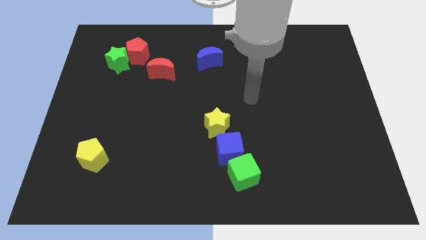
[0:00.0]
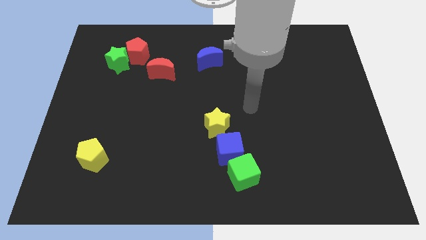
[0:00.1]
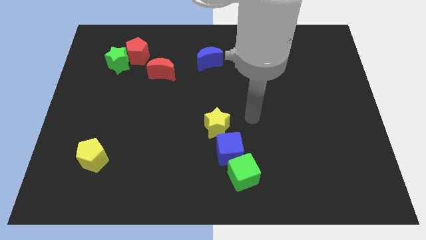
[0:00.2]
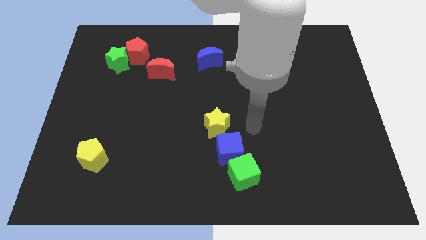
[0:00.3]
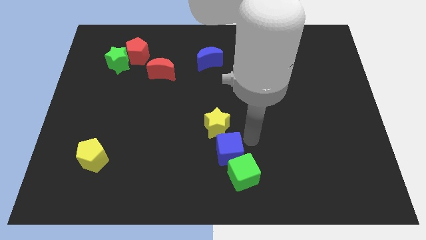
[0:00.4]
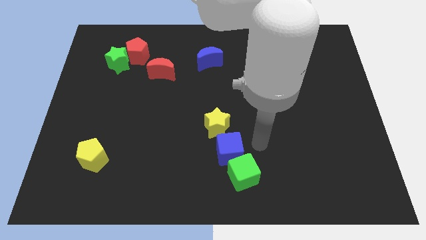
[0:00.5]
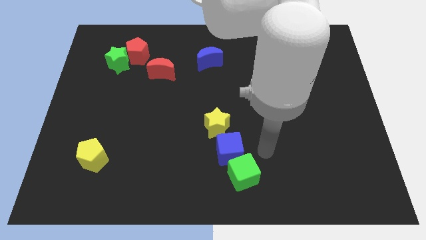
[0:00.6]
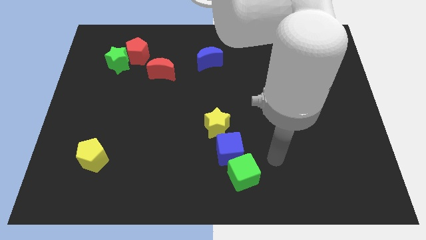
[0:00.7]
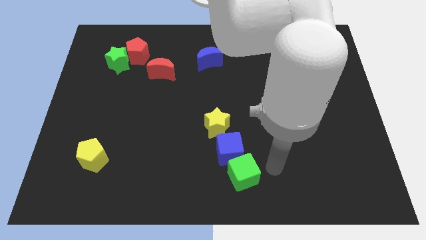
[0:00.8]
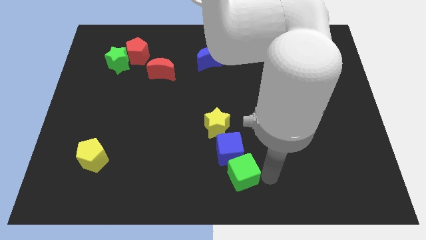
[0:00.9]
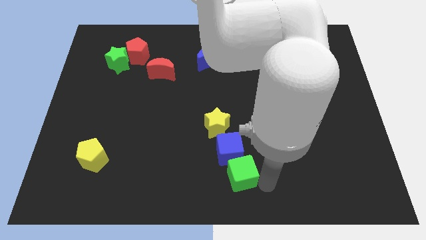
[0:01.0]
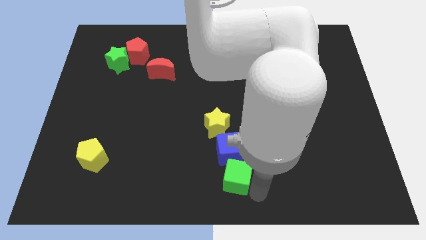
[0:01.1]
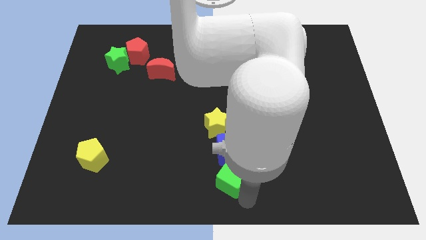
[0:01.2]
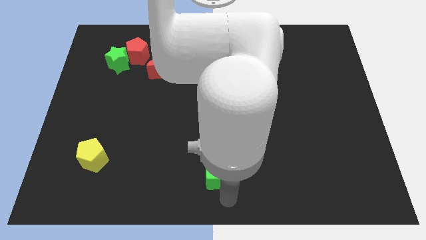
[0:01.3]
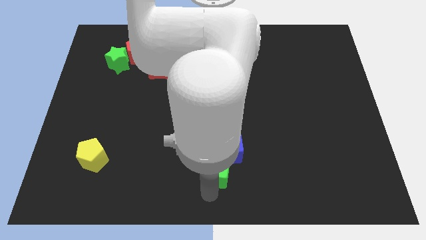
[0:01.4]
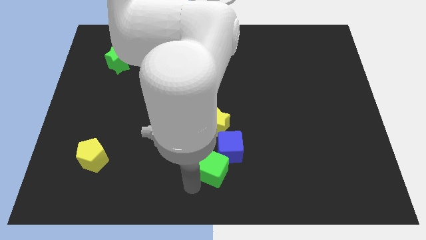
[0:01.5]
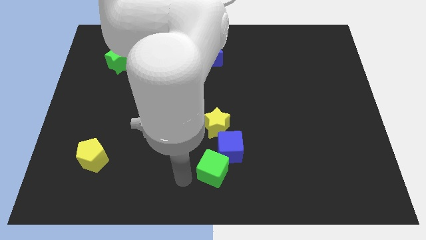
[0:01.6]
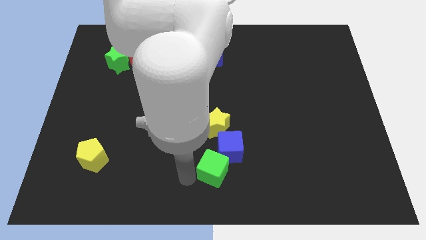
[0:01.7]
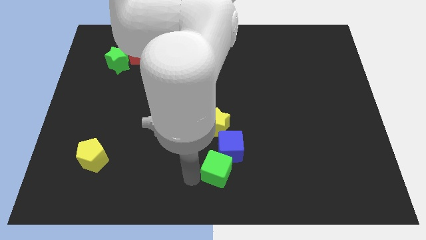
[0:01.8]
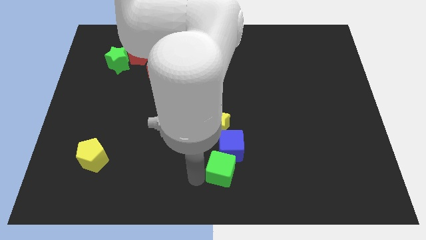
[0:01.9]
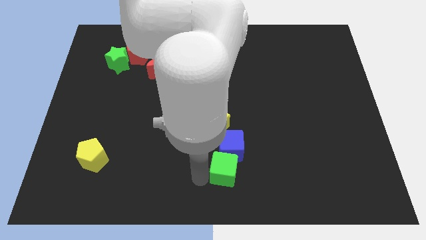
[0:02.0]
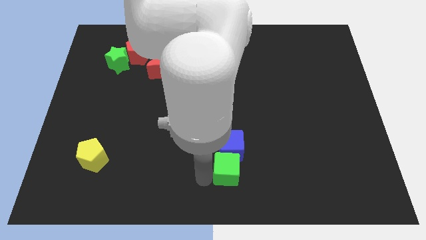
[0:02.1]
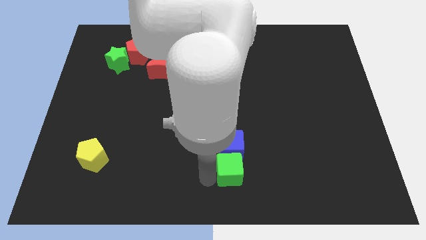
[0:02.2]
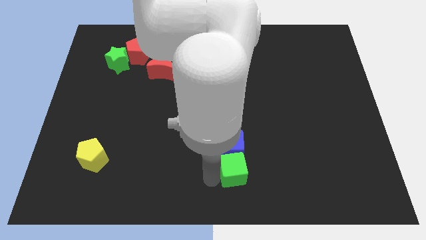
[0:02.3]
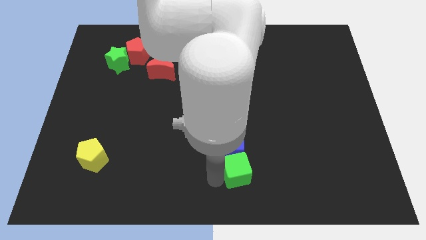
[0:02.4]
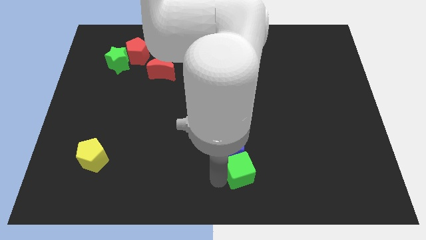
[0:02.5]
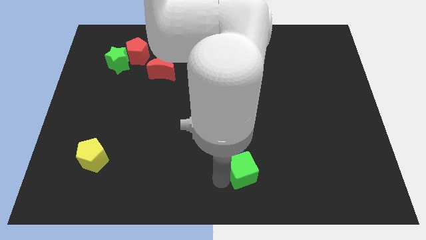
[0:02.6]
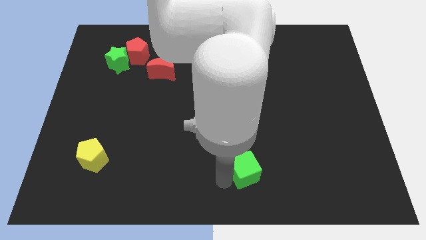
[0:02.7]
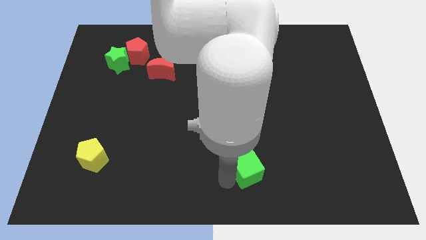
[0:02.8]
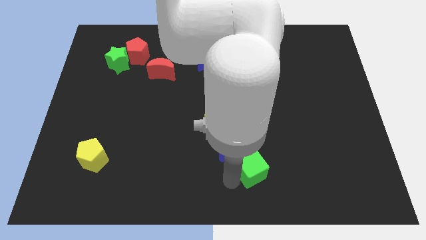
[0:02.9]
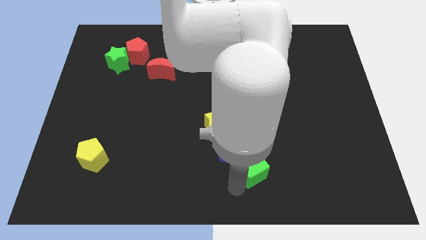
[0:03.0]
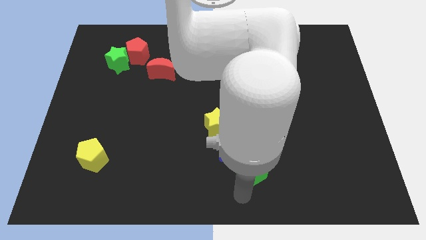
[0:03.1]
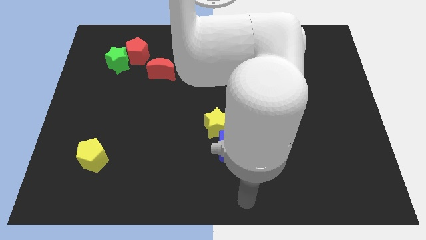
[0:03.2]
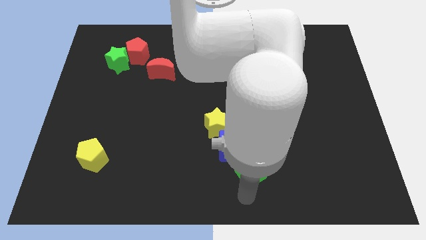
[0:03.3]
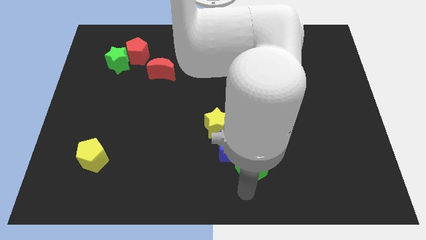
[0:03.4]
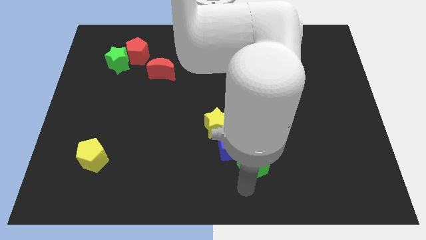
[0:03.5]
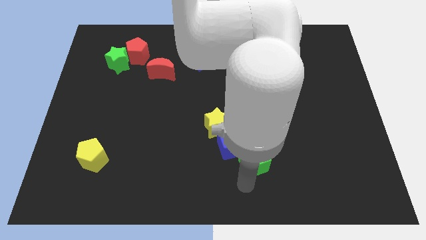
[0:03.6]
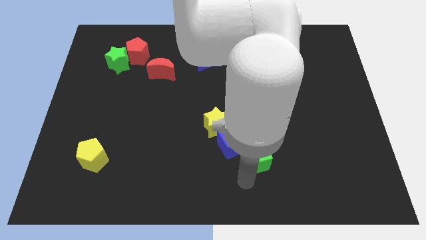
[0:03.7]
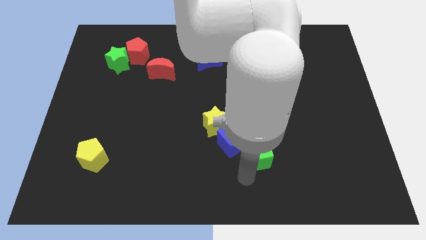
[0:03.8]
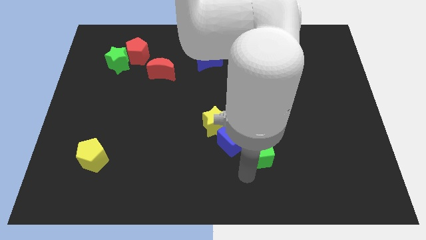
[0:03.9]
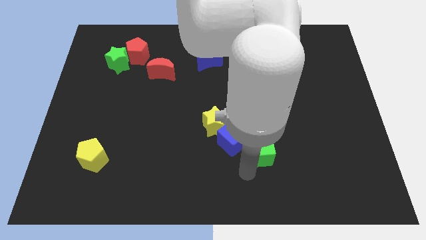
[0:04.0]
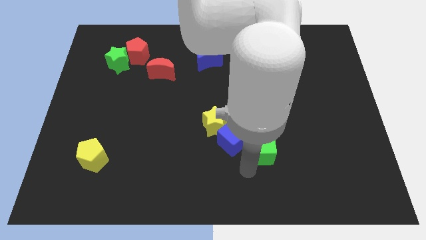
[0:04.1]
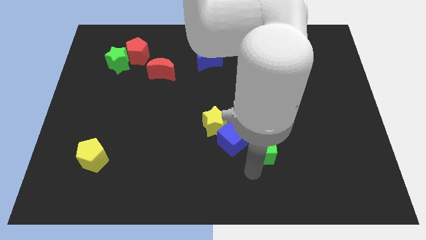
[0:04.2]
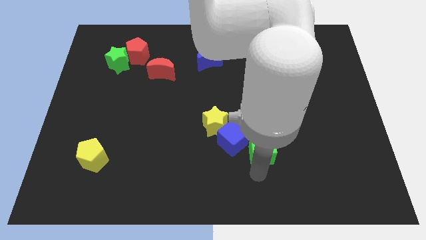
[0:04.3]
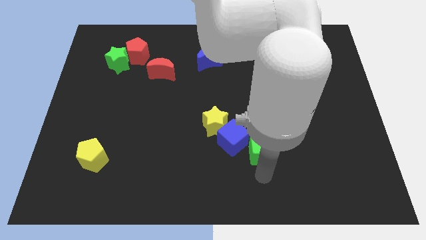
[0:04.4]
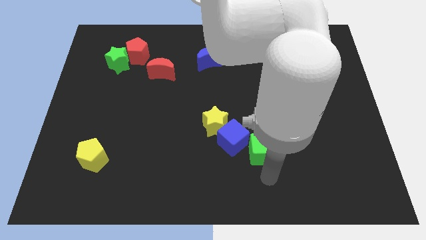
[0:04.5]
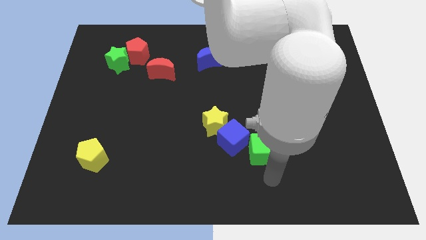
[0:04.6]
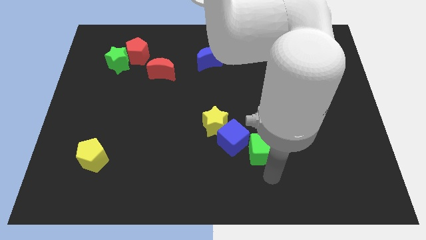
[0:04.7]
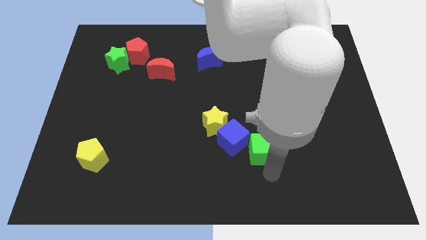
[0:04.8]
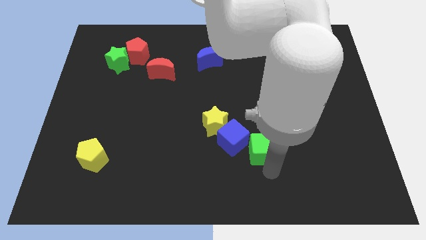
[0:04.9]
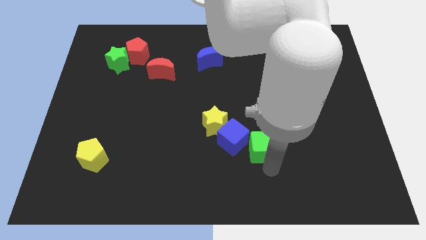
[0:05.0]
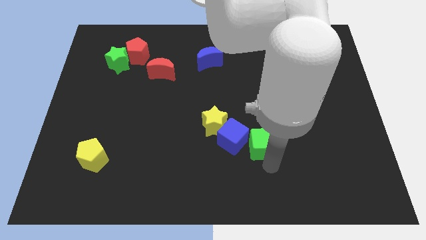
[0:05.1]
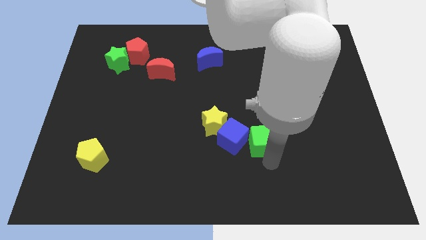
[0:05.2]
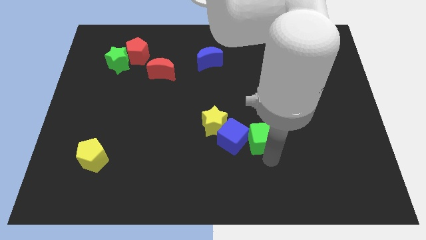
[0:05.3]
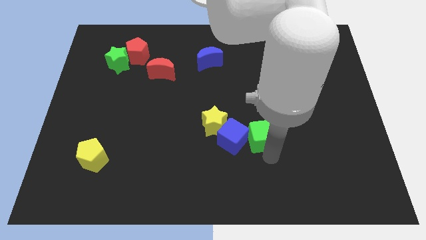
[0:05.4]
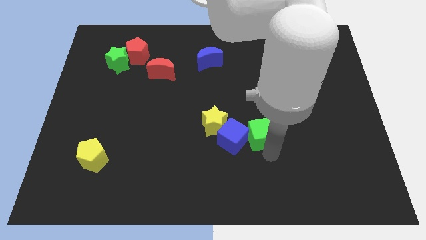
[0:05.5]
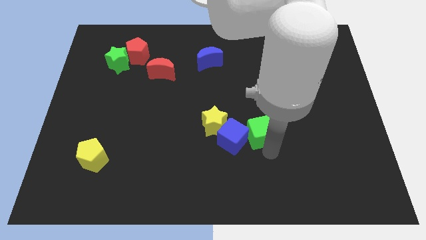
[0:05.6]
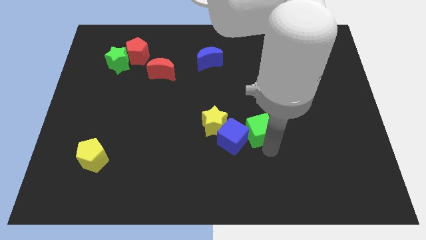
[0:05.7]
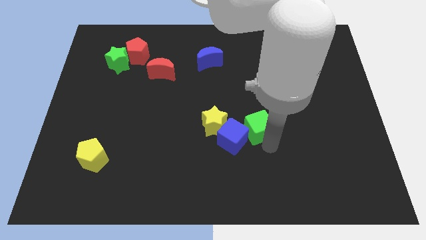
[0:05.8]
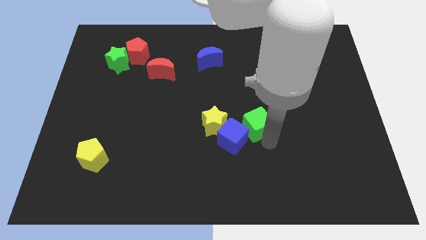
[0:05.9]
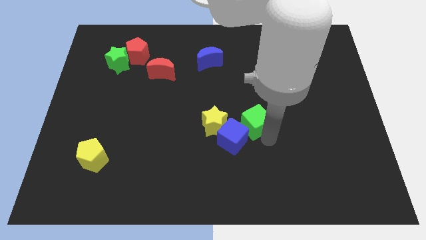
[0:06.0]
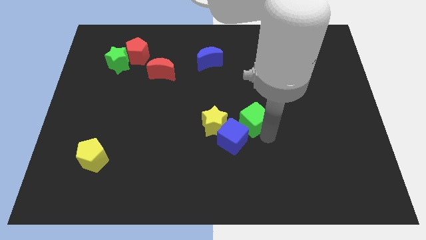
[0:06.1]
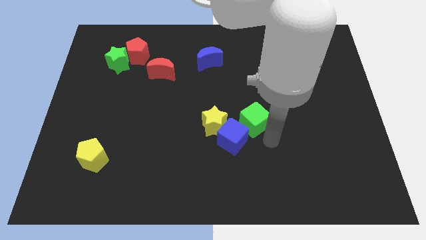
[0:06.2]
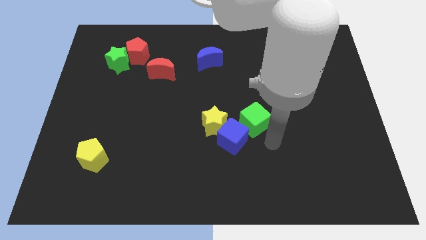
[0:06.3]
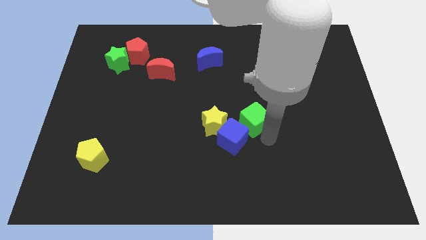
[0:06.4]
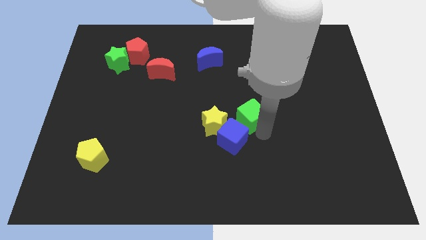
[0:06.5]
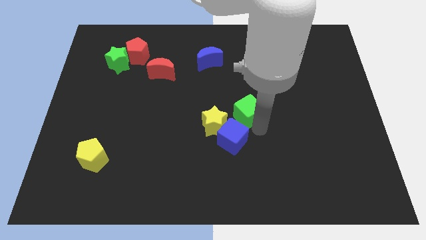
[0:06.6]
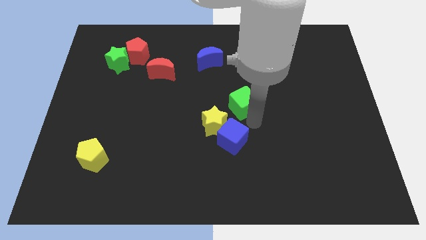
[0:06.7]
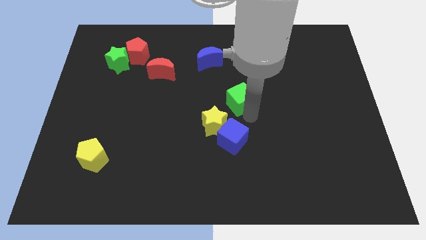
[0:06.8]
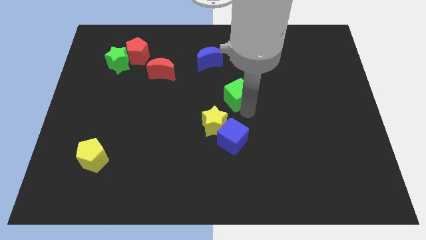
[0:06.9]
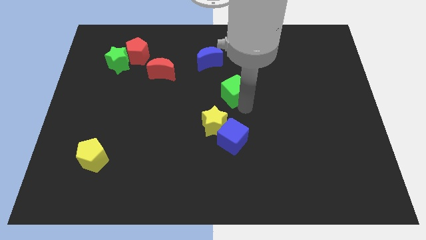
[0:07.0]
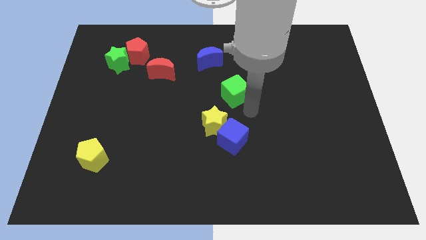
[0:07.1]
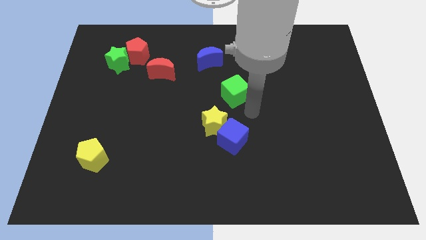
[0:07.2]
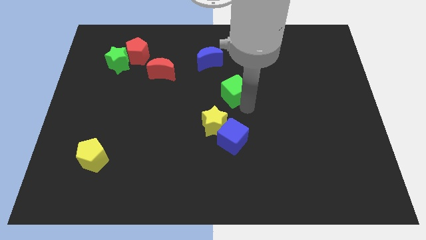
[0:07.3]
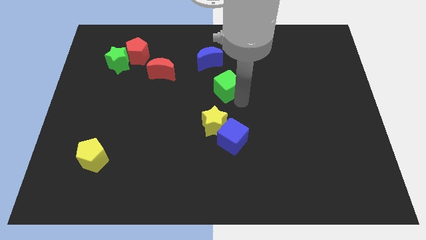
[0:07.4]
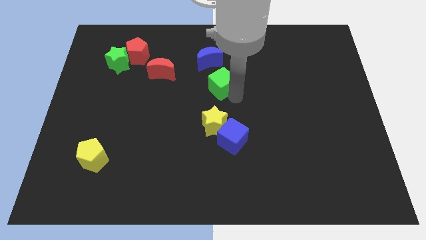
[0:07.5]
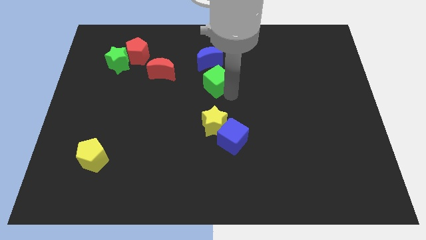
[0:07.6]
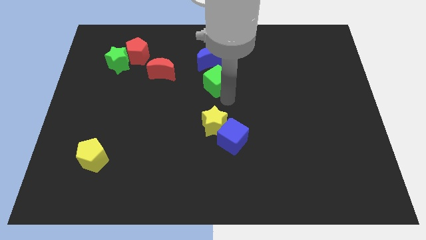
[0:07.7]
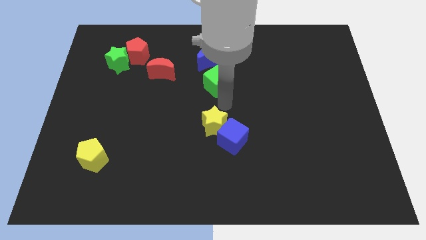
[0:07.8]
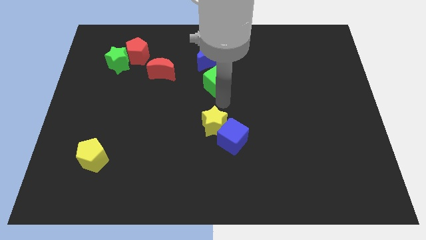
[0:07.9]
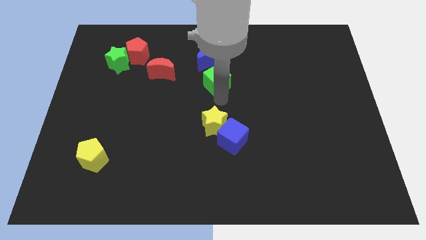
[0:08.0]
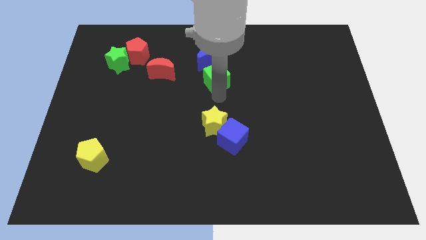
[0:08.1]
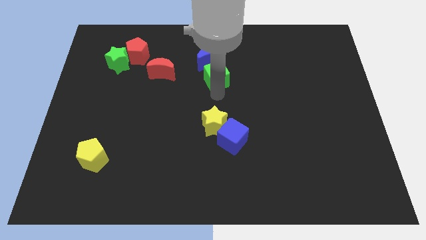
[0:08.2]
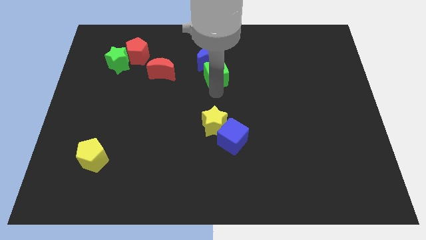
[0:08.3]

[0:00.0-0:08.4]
move the green cube to the blue moon
